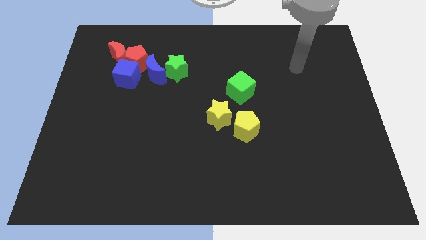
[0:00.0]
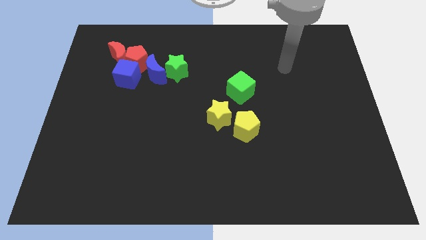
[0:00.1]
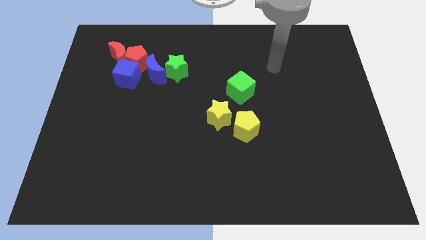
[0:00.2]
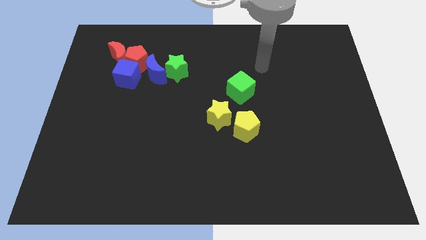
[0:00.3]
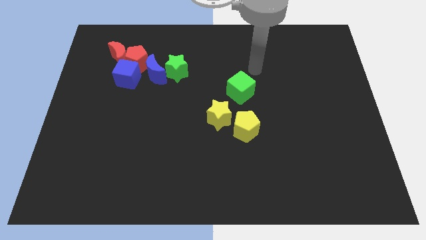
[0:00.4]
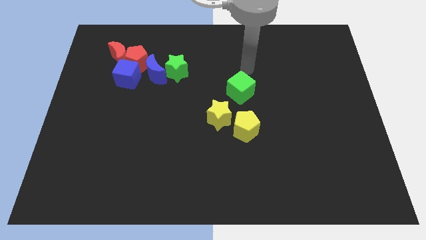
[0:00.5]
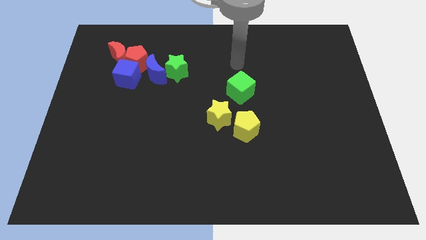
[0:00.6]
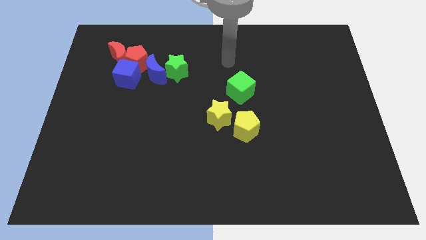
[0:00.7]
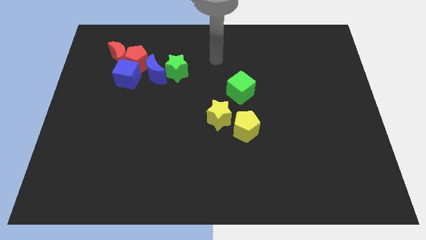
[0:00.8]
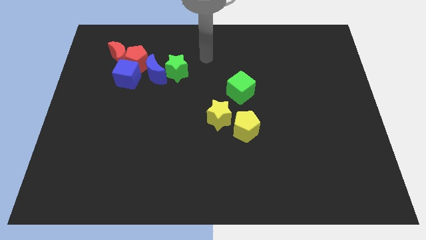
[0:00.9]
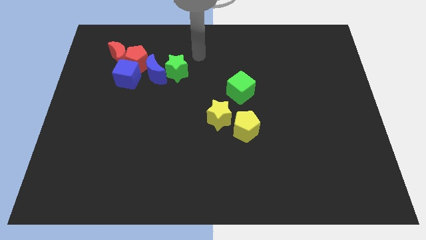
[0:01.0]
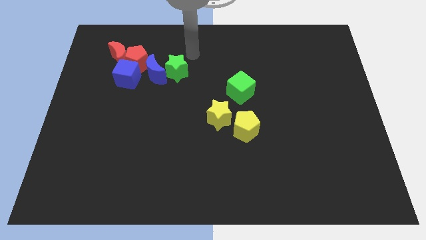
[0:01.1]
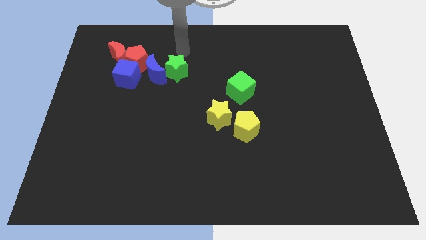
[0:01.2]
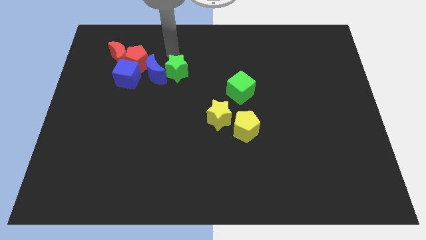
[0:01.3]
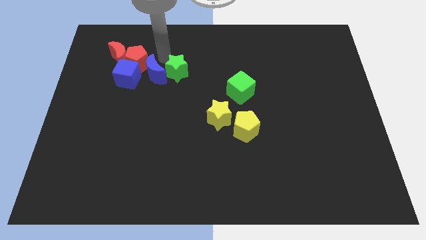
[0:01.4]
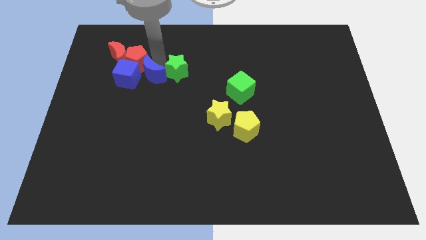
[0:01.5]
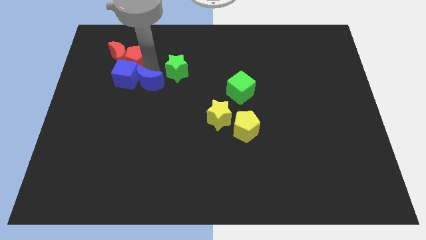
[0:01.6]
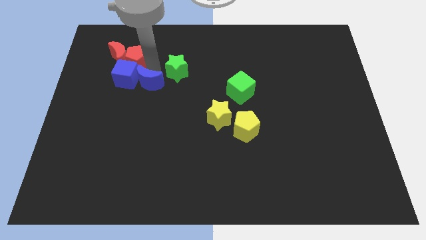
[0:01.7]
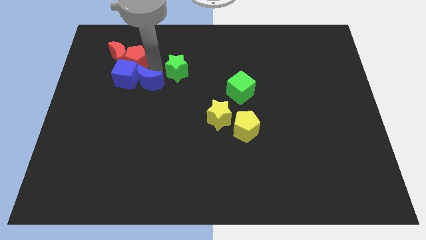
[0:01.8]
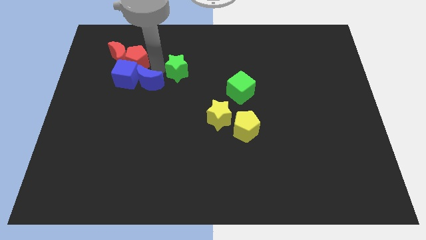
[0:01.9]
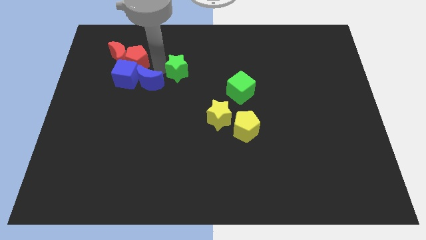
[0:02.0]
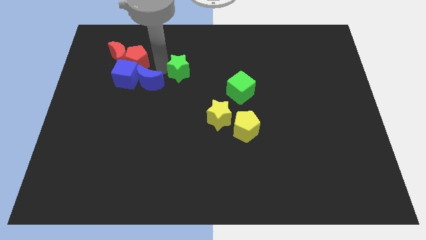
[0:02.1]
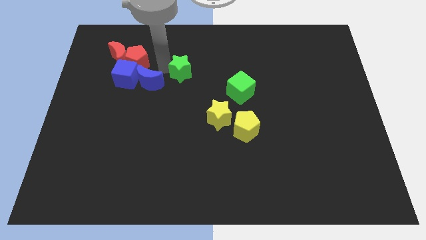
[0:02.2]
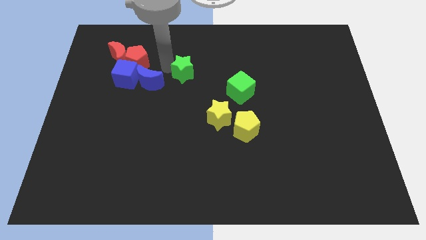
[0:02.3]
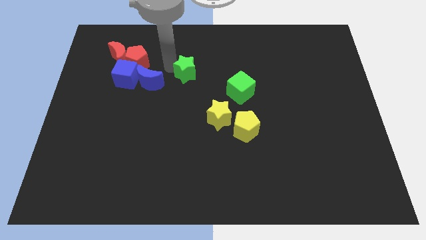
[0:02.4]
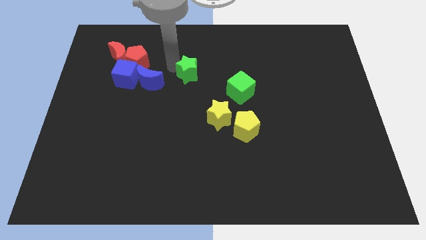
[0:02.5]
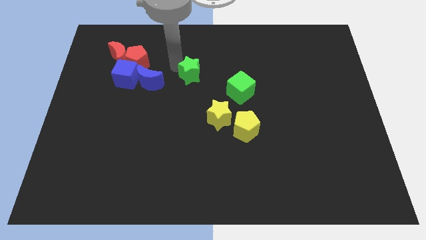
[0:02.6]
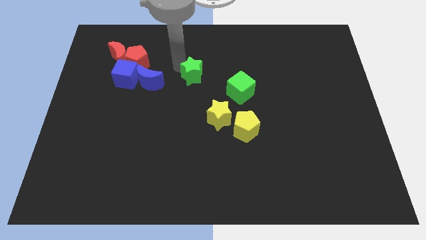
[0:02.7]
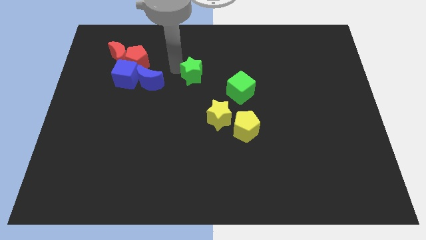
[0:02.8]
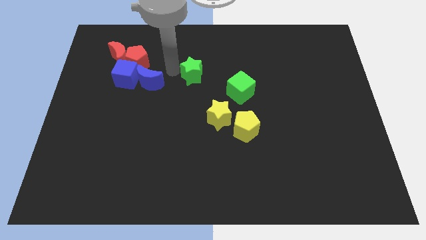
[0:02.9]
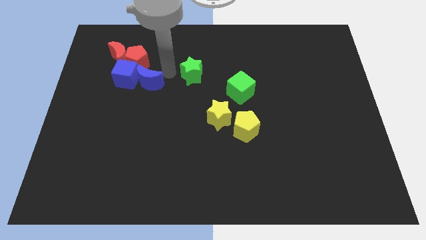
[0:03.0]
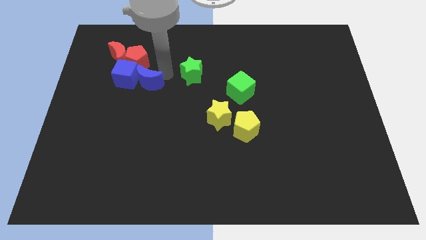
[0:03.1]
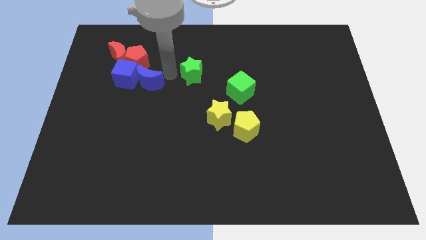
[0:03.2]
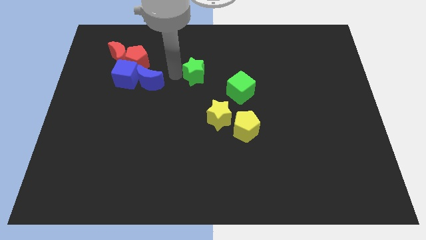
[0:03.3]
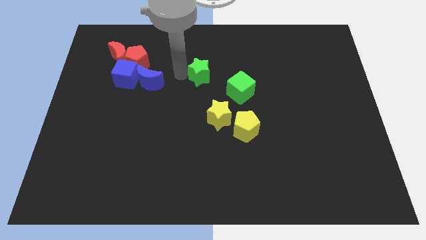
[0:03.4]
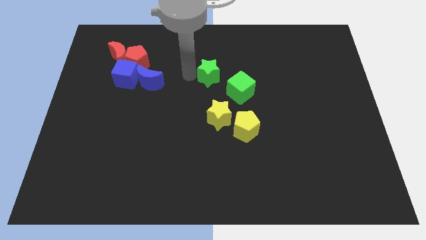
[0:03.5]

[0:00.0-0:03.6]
slightly push the green star right

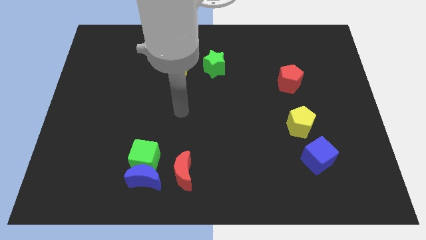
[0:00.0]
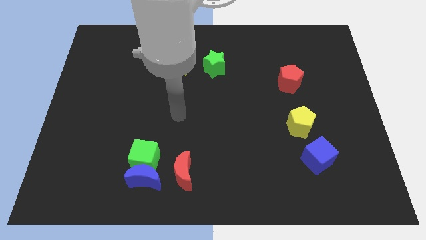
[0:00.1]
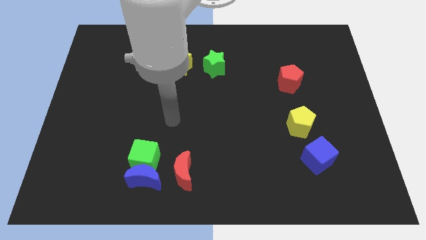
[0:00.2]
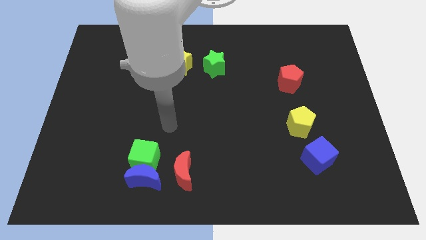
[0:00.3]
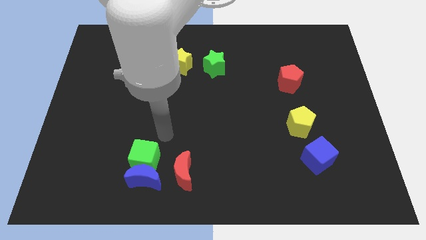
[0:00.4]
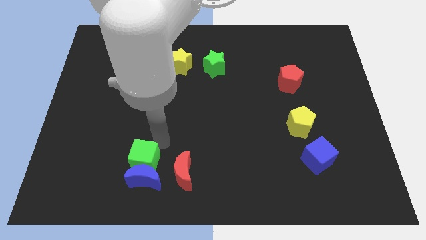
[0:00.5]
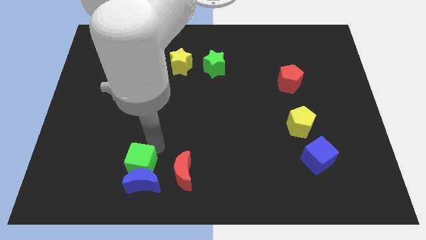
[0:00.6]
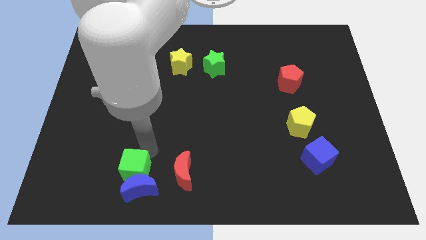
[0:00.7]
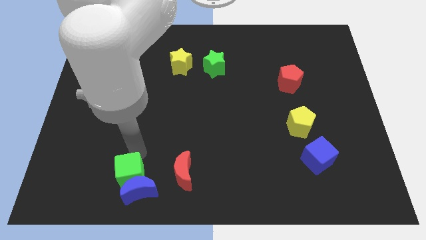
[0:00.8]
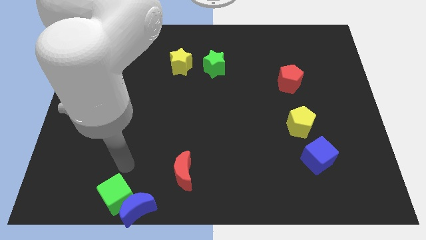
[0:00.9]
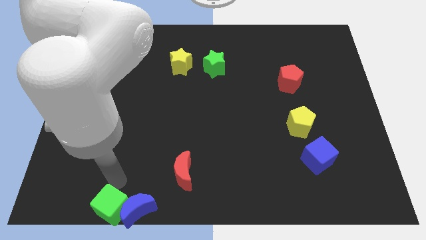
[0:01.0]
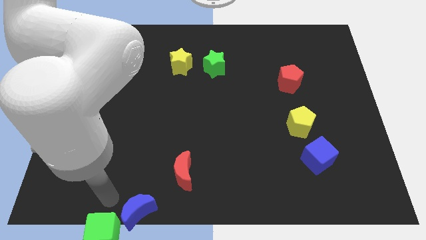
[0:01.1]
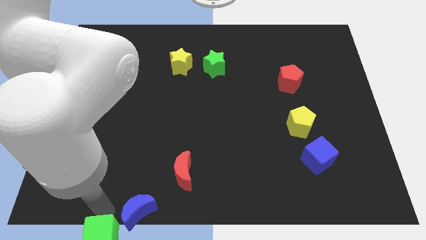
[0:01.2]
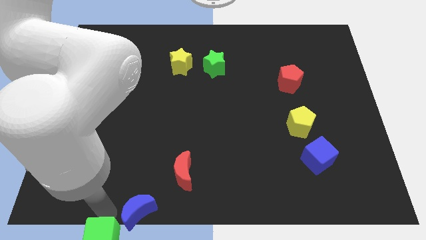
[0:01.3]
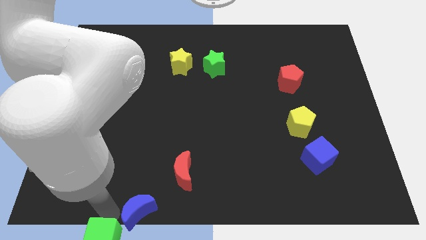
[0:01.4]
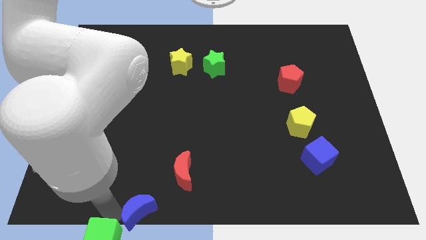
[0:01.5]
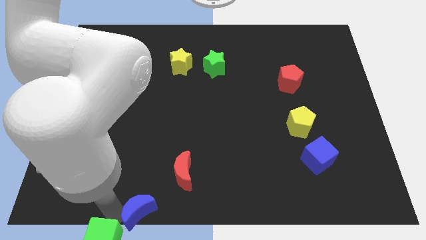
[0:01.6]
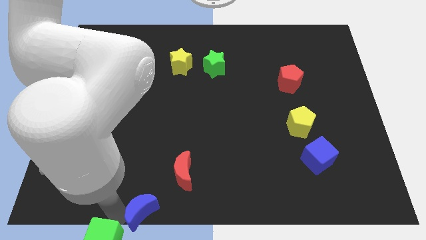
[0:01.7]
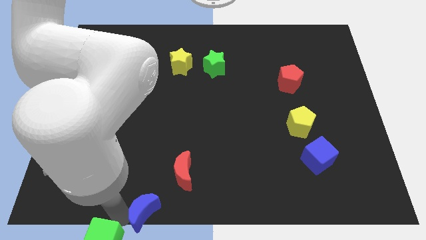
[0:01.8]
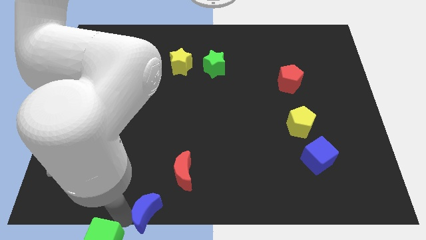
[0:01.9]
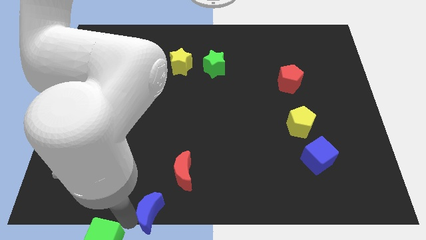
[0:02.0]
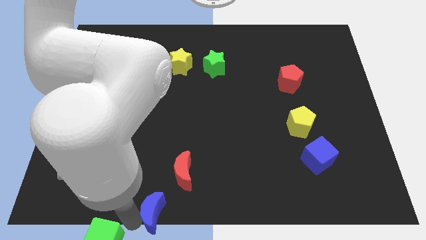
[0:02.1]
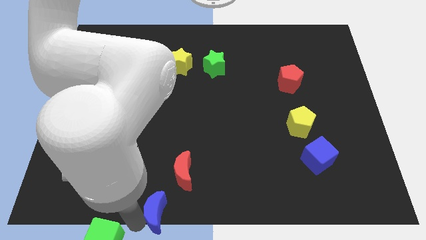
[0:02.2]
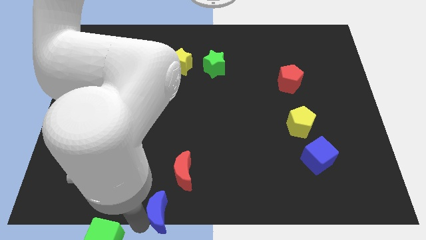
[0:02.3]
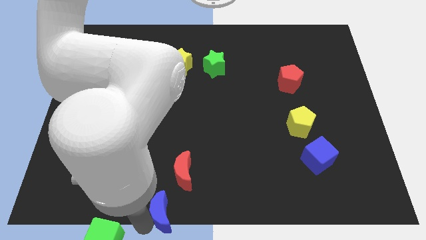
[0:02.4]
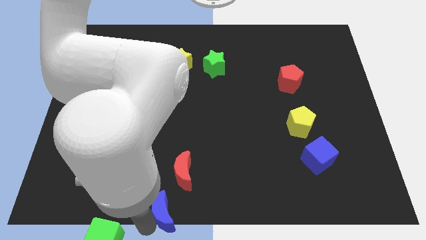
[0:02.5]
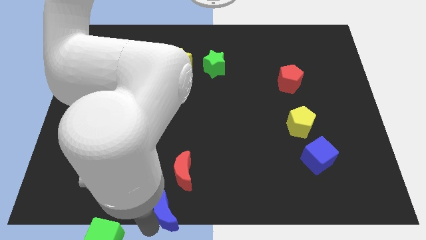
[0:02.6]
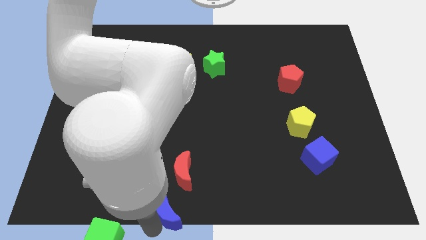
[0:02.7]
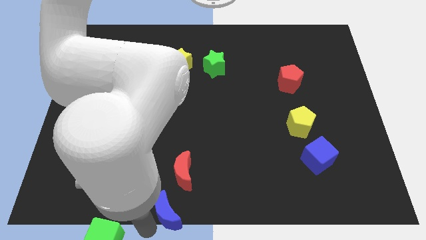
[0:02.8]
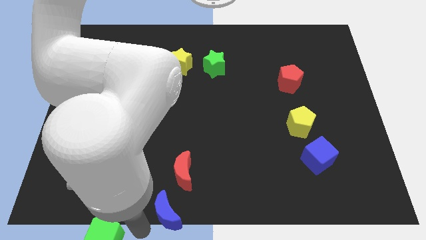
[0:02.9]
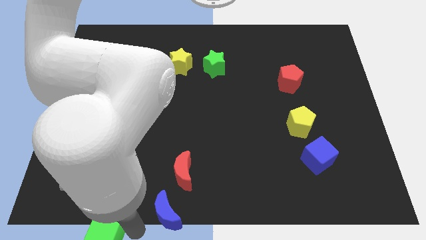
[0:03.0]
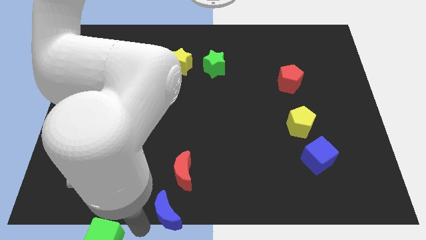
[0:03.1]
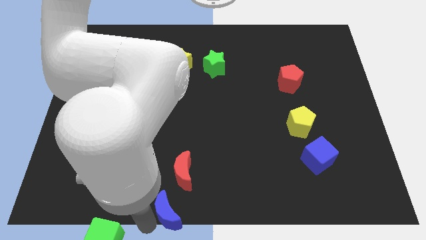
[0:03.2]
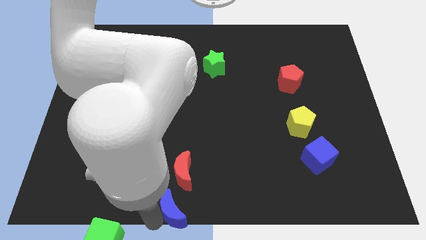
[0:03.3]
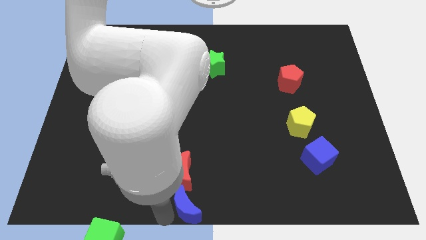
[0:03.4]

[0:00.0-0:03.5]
move the blue moon a little right

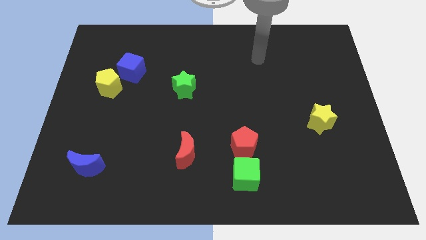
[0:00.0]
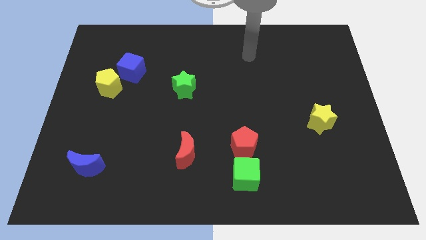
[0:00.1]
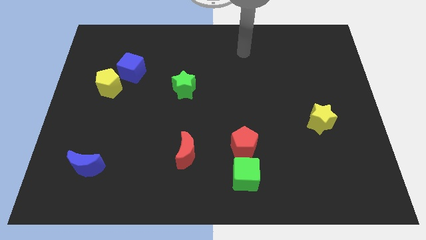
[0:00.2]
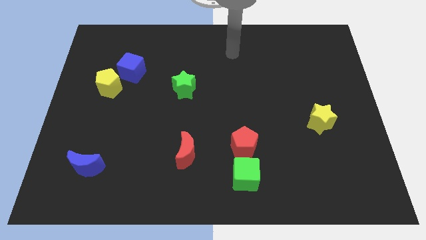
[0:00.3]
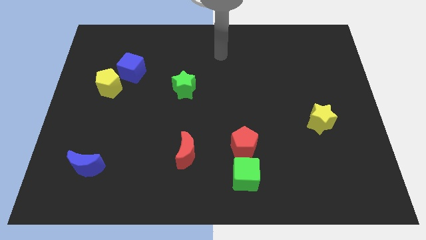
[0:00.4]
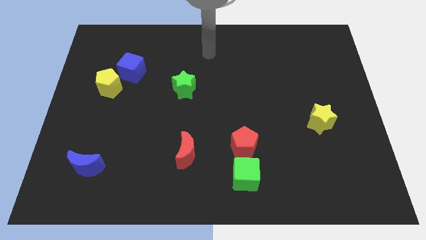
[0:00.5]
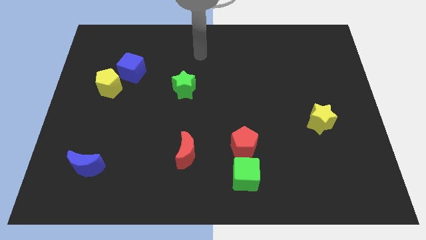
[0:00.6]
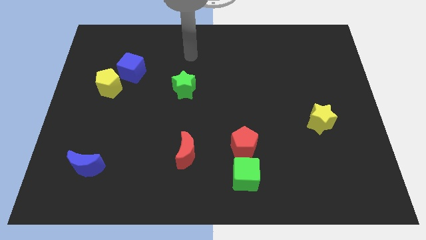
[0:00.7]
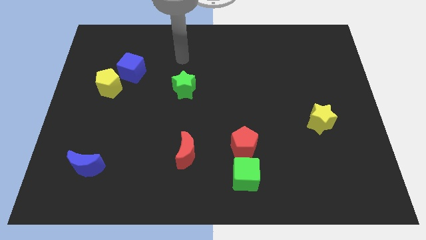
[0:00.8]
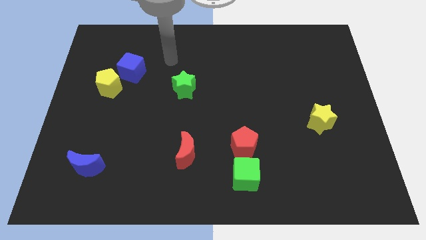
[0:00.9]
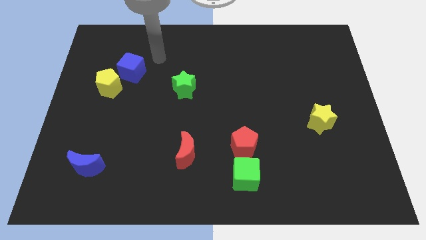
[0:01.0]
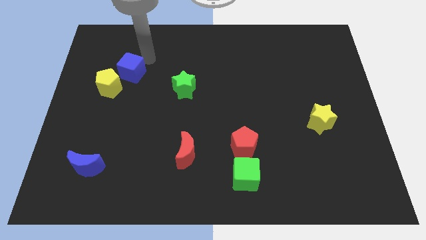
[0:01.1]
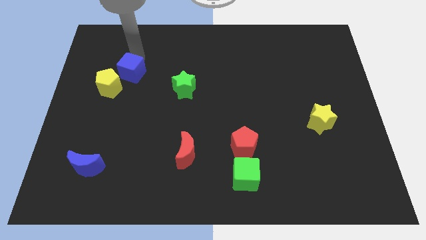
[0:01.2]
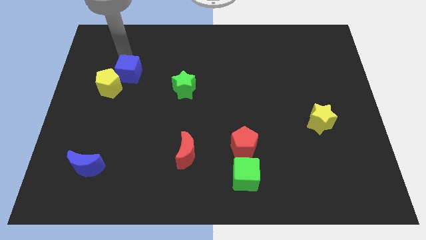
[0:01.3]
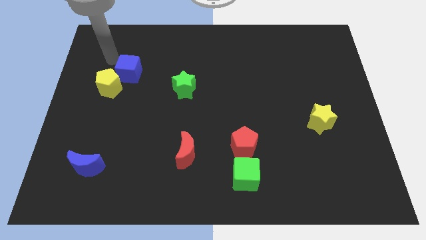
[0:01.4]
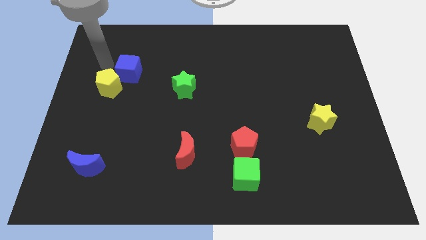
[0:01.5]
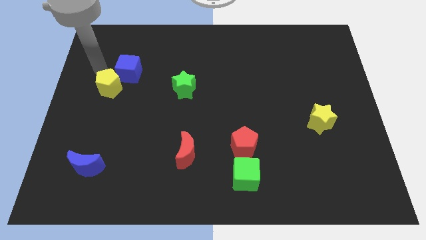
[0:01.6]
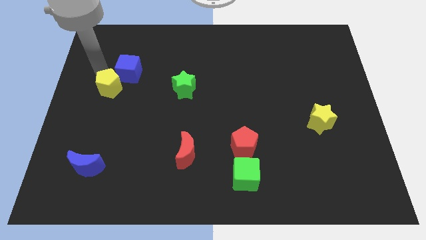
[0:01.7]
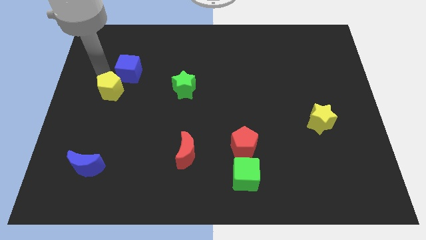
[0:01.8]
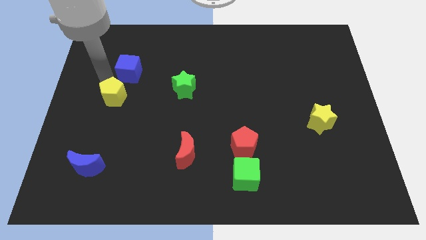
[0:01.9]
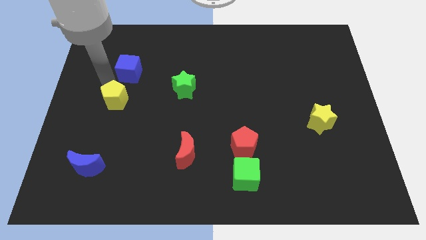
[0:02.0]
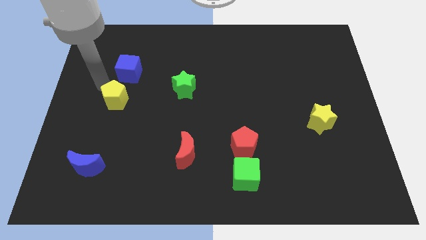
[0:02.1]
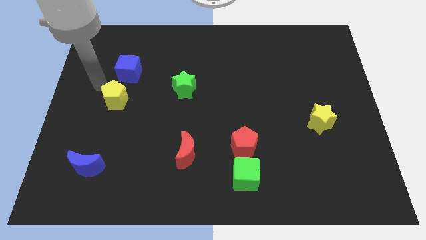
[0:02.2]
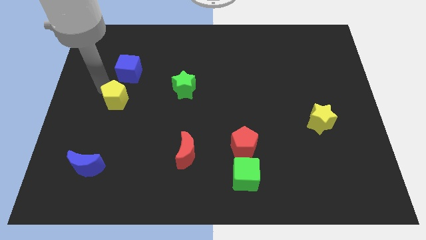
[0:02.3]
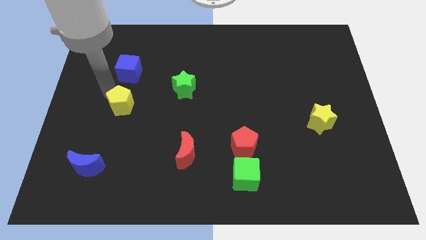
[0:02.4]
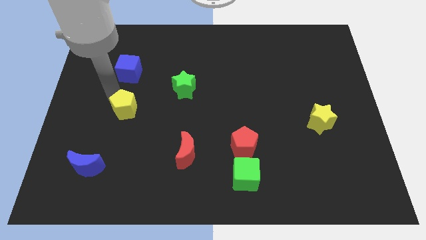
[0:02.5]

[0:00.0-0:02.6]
slide the yellow pentagon a little downwards and then right
